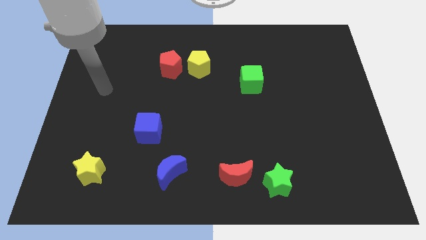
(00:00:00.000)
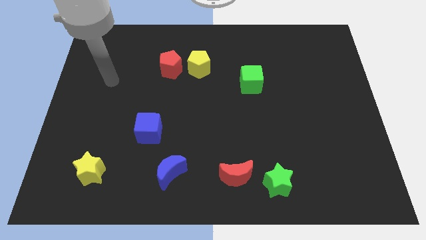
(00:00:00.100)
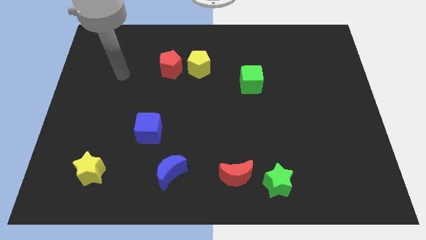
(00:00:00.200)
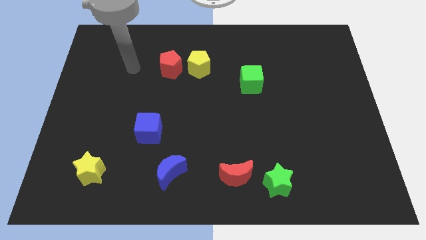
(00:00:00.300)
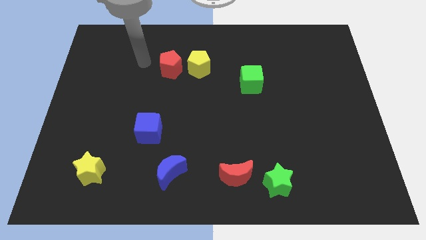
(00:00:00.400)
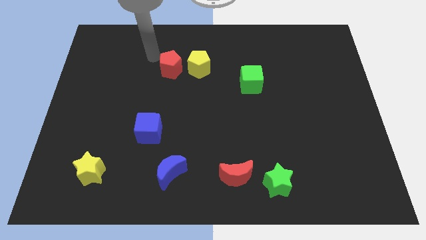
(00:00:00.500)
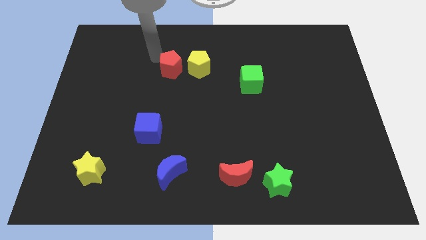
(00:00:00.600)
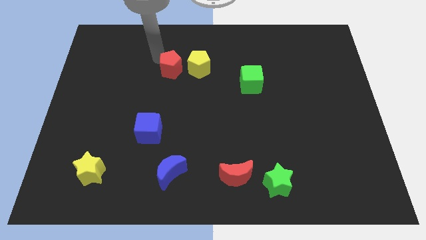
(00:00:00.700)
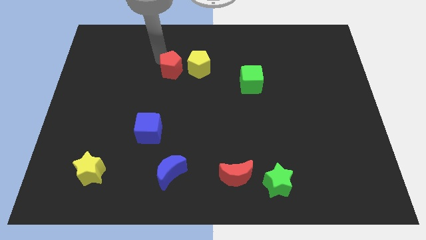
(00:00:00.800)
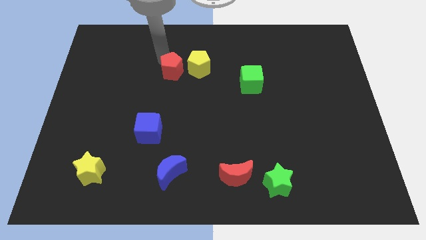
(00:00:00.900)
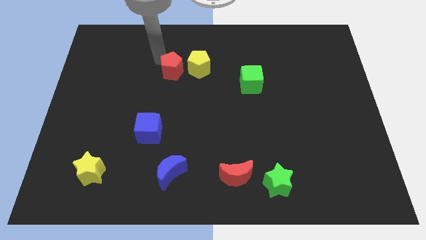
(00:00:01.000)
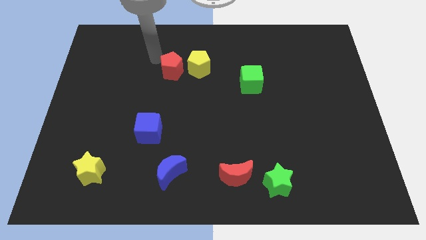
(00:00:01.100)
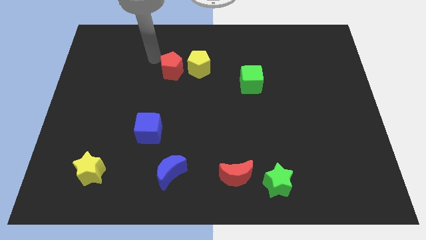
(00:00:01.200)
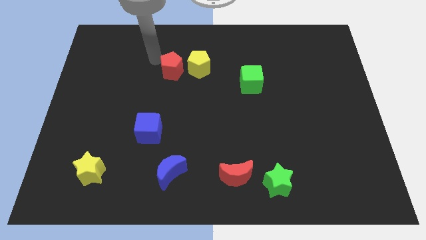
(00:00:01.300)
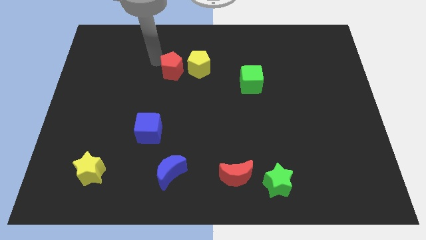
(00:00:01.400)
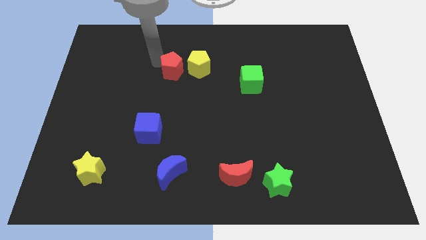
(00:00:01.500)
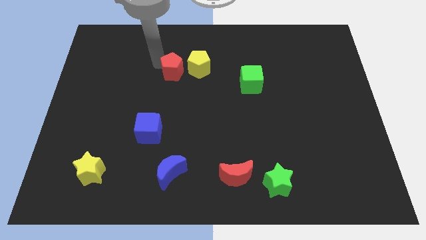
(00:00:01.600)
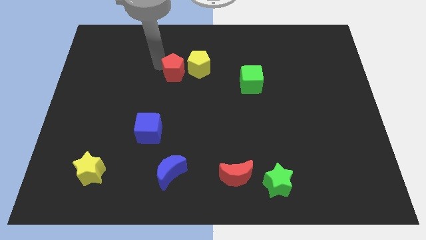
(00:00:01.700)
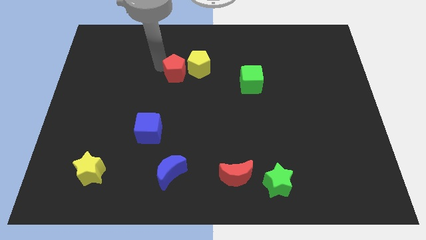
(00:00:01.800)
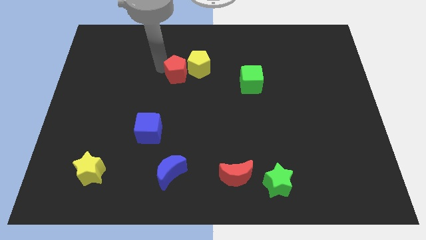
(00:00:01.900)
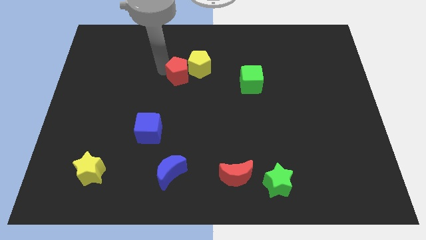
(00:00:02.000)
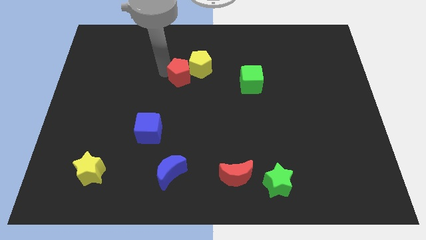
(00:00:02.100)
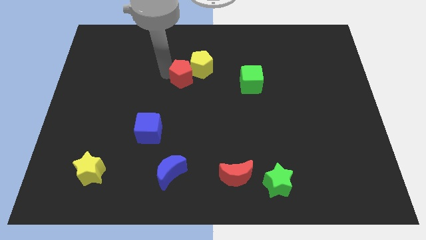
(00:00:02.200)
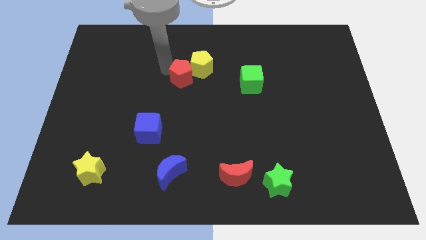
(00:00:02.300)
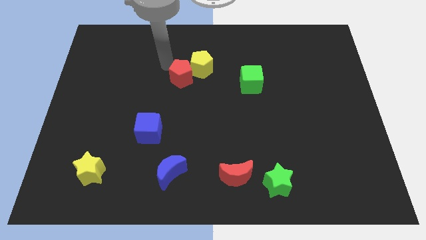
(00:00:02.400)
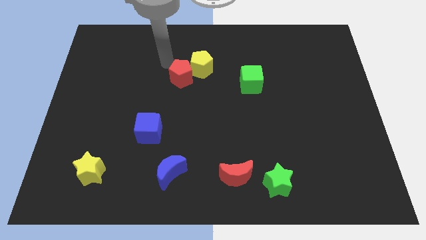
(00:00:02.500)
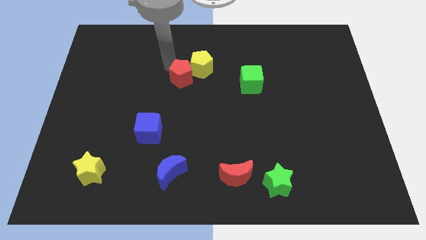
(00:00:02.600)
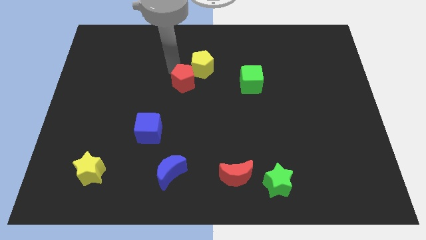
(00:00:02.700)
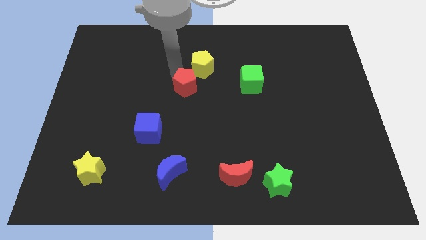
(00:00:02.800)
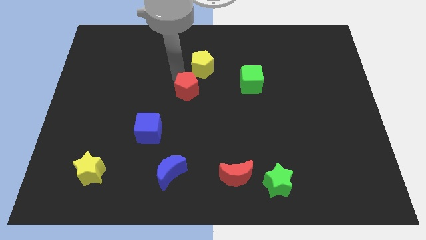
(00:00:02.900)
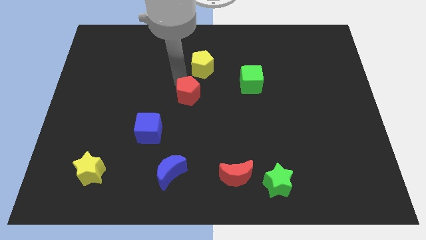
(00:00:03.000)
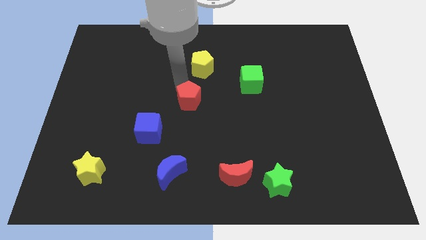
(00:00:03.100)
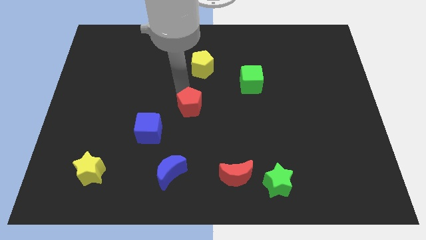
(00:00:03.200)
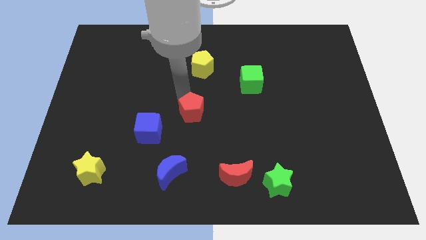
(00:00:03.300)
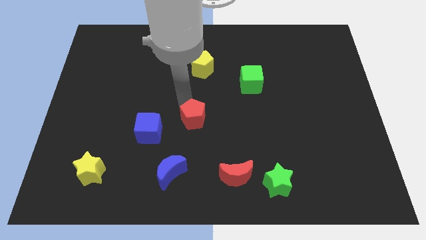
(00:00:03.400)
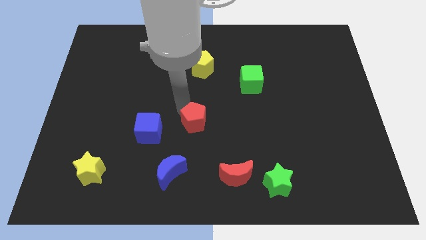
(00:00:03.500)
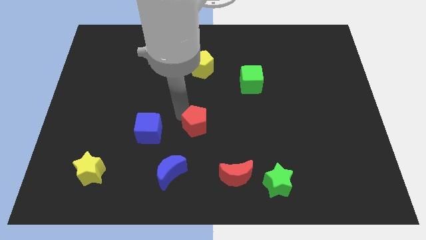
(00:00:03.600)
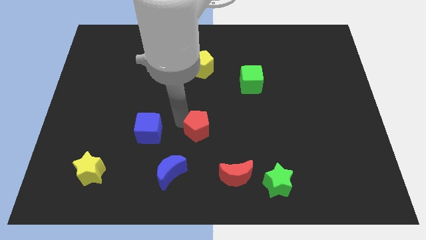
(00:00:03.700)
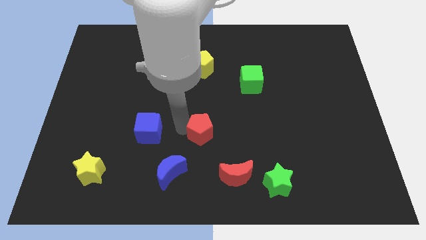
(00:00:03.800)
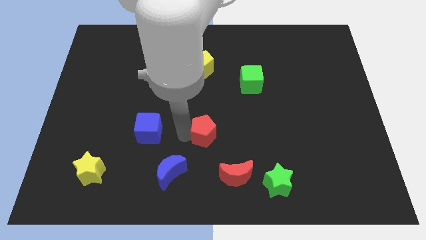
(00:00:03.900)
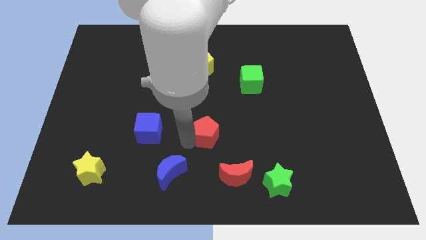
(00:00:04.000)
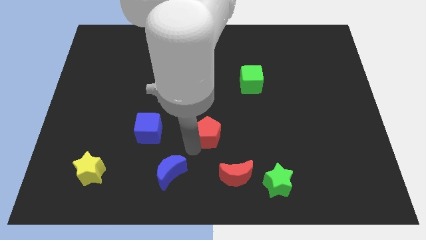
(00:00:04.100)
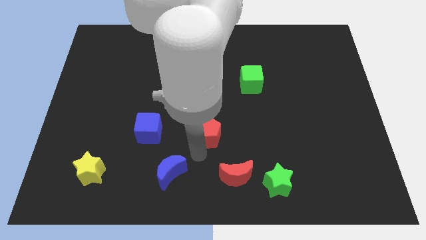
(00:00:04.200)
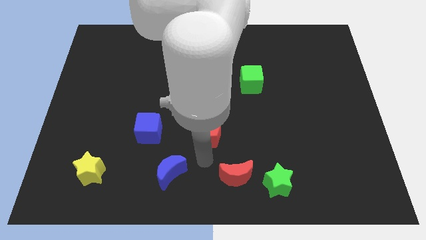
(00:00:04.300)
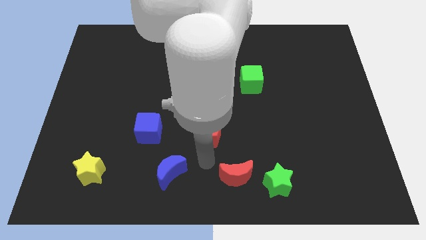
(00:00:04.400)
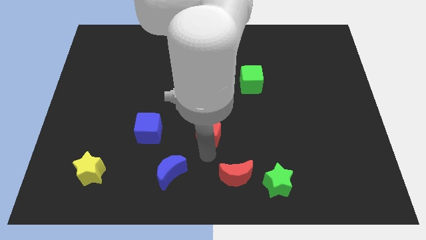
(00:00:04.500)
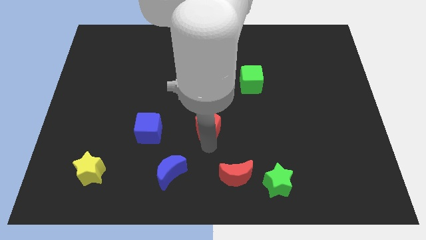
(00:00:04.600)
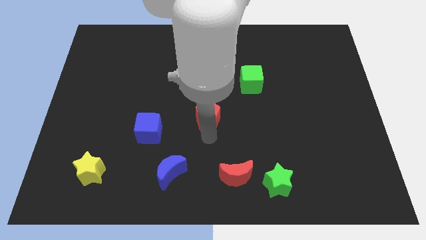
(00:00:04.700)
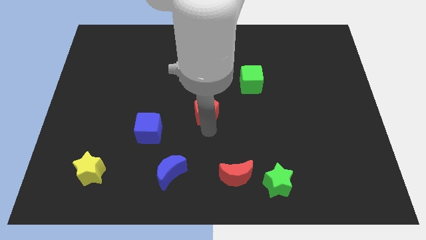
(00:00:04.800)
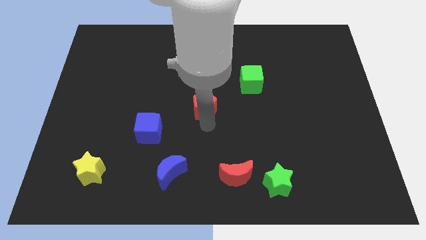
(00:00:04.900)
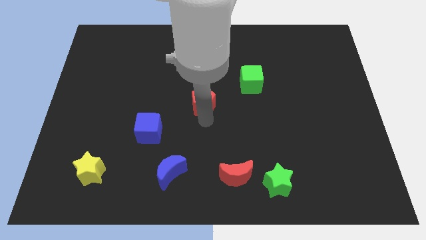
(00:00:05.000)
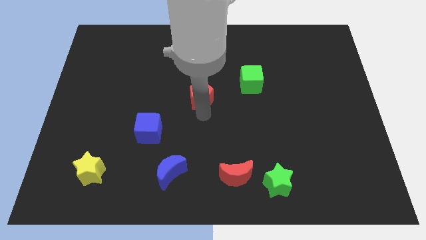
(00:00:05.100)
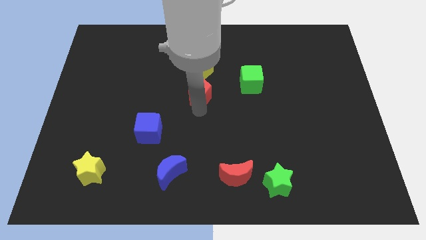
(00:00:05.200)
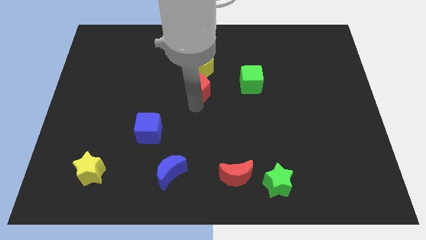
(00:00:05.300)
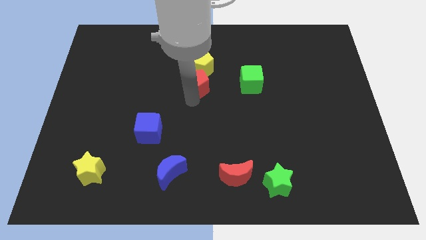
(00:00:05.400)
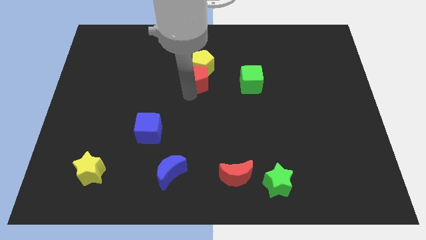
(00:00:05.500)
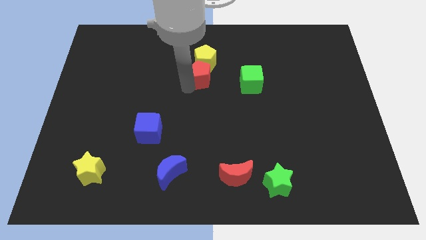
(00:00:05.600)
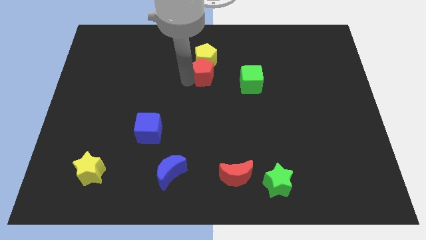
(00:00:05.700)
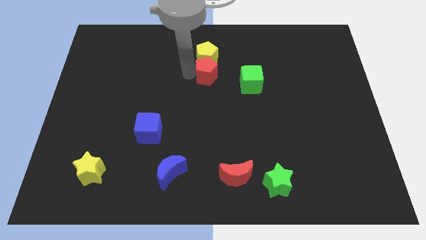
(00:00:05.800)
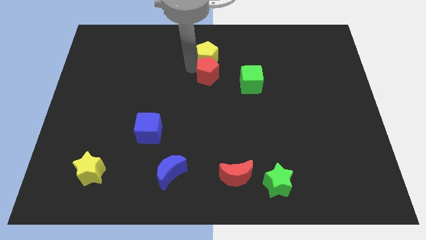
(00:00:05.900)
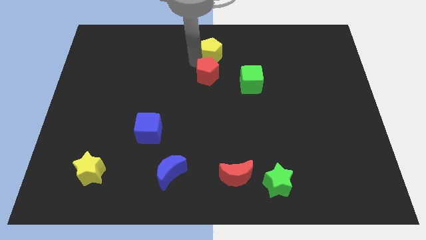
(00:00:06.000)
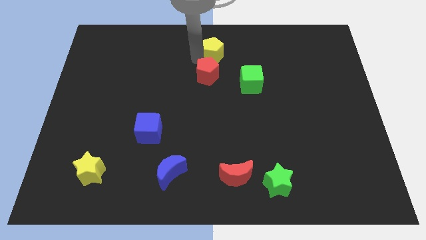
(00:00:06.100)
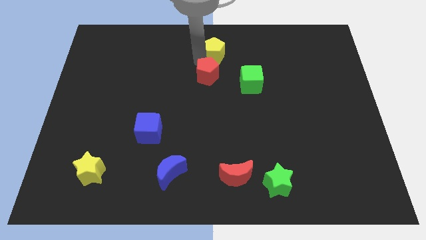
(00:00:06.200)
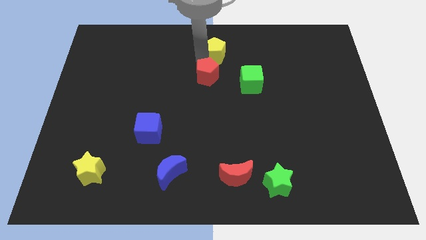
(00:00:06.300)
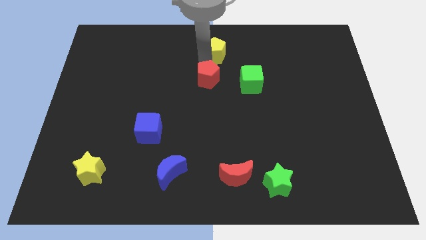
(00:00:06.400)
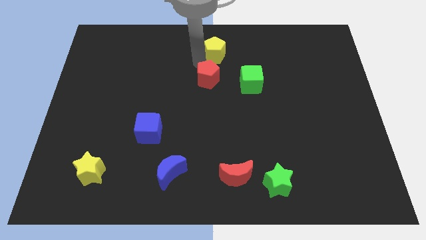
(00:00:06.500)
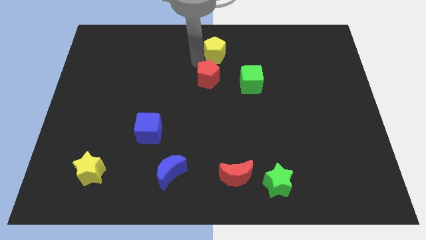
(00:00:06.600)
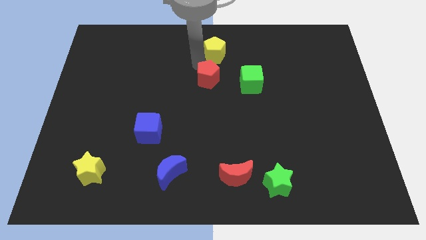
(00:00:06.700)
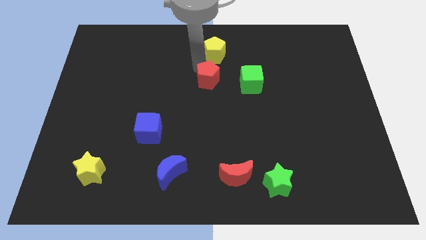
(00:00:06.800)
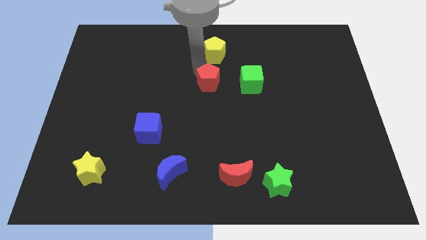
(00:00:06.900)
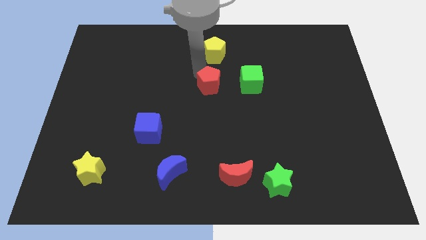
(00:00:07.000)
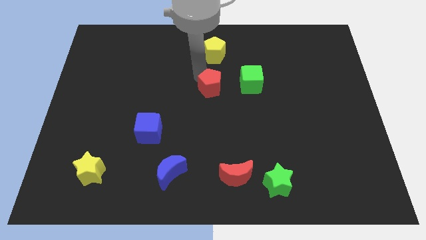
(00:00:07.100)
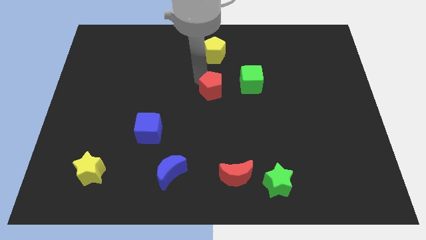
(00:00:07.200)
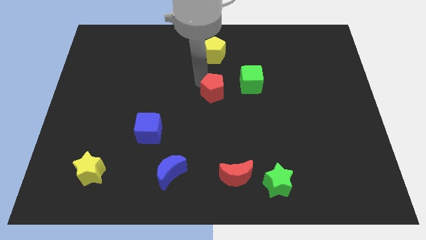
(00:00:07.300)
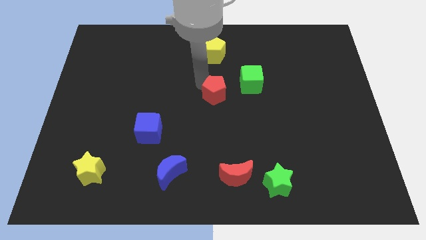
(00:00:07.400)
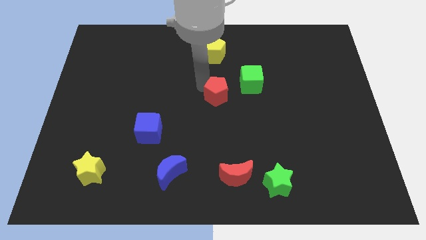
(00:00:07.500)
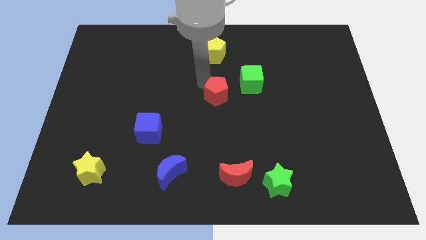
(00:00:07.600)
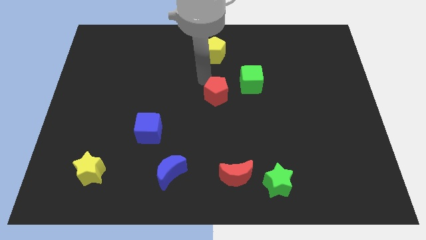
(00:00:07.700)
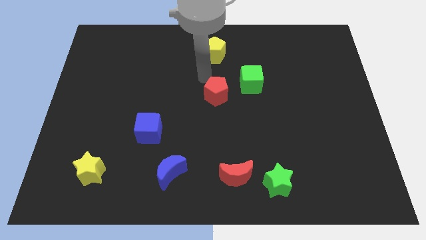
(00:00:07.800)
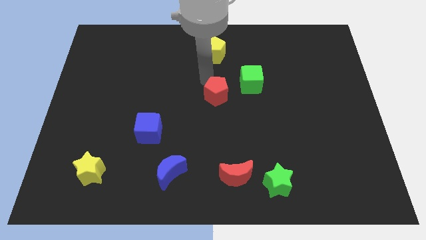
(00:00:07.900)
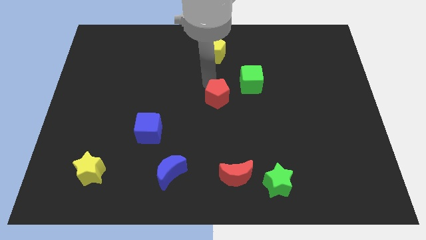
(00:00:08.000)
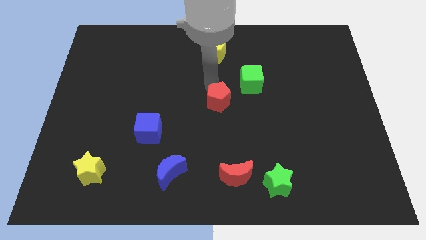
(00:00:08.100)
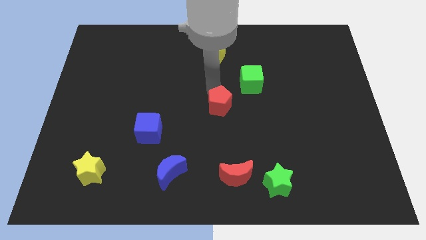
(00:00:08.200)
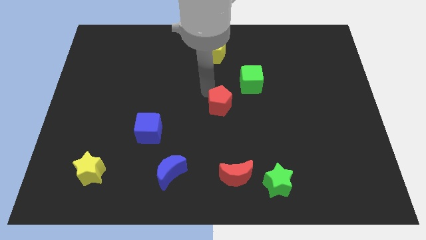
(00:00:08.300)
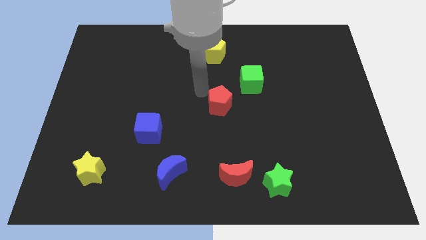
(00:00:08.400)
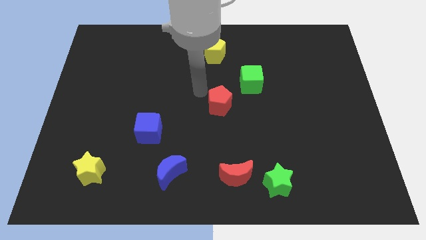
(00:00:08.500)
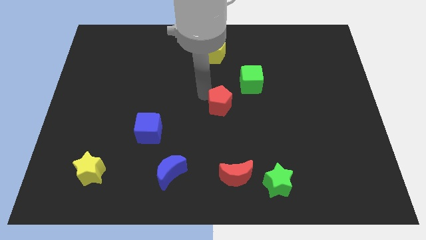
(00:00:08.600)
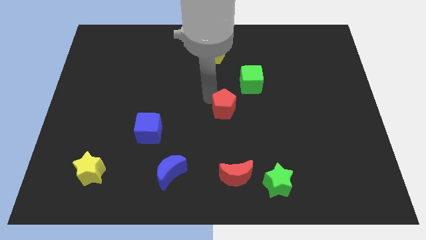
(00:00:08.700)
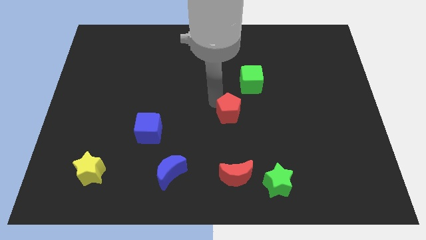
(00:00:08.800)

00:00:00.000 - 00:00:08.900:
slide the red pentagon down and then right
